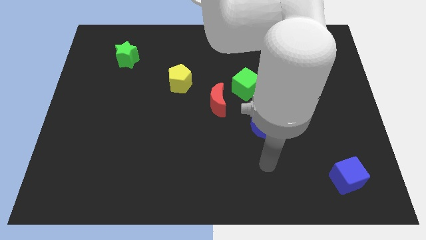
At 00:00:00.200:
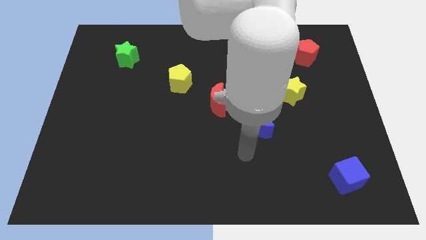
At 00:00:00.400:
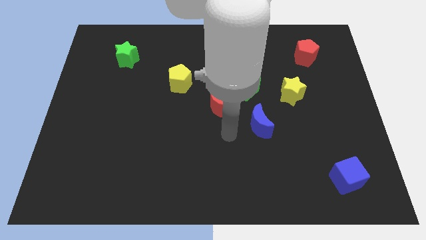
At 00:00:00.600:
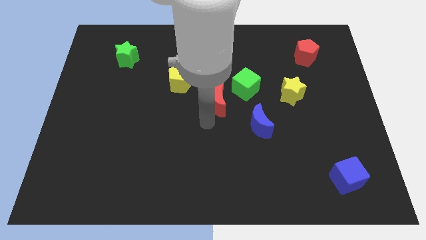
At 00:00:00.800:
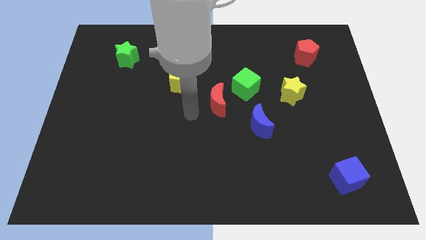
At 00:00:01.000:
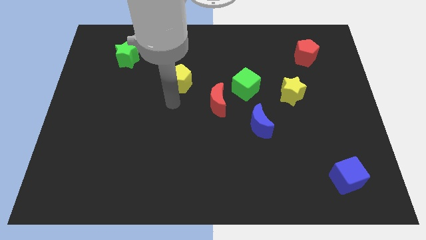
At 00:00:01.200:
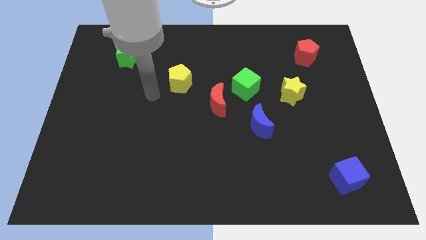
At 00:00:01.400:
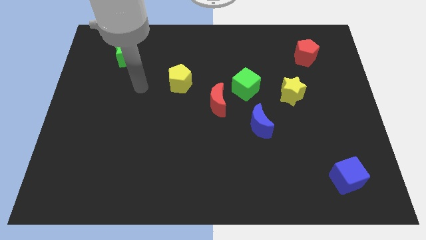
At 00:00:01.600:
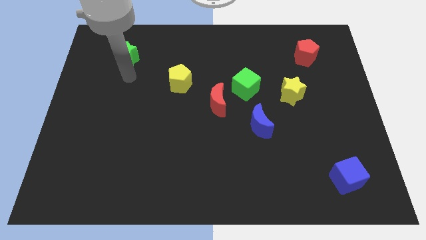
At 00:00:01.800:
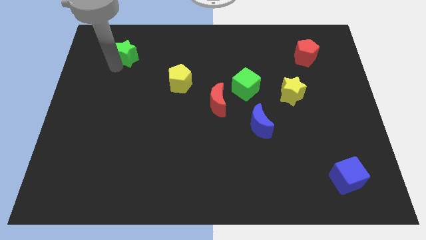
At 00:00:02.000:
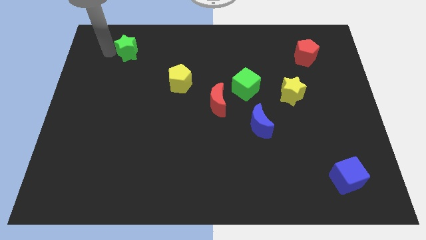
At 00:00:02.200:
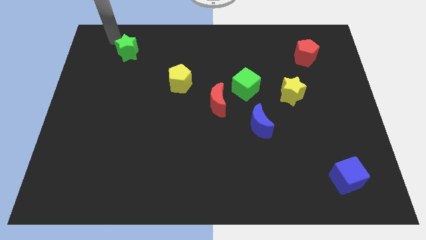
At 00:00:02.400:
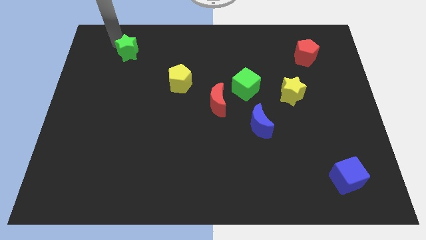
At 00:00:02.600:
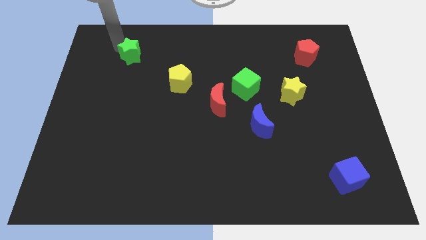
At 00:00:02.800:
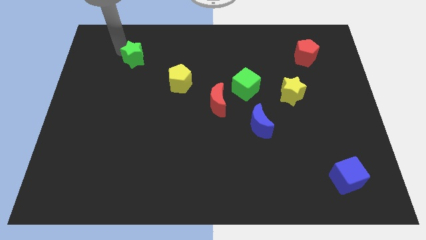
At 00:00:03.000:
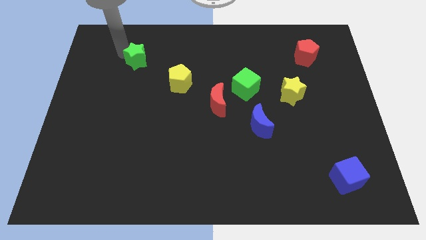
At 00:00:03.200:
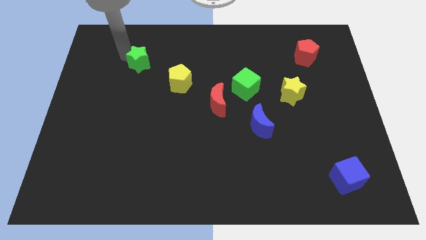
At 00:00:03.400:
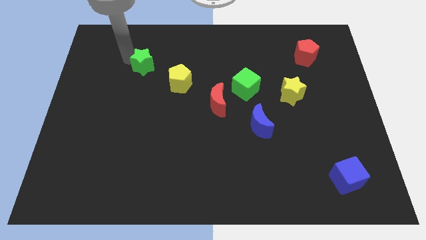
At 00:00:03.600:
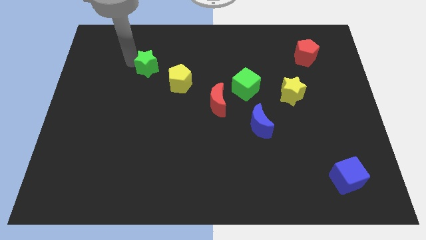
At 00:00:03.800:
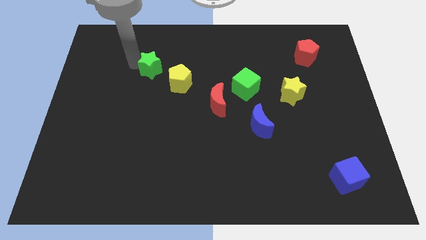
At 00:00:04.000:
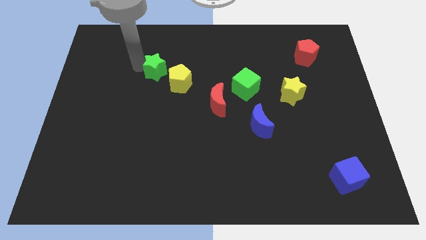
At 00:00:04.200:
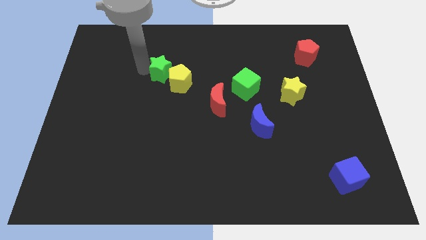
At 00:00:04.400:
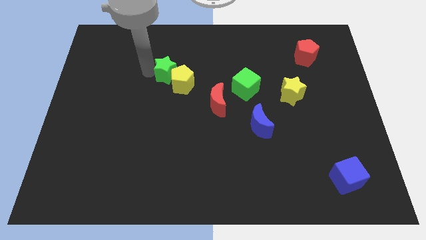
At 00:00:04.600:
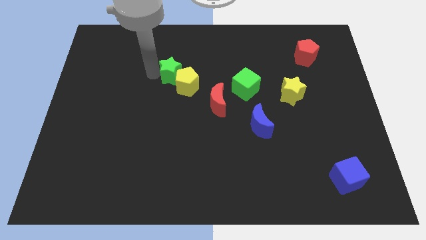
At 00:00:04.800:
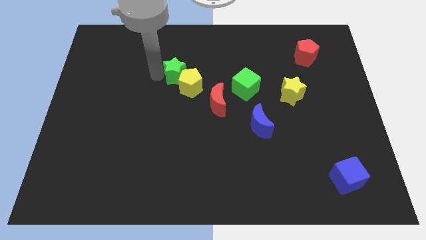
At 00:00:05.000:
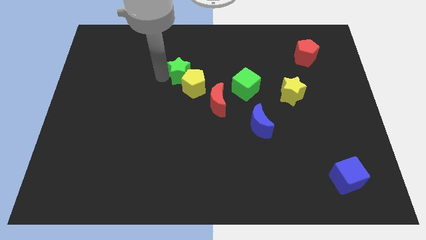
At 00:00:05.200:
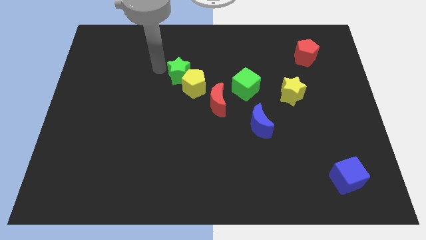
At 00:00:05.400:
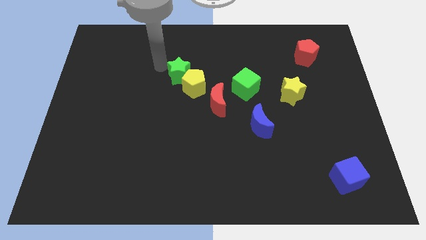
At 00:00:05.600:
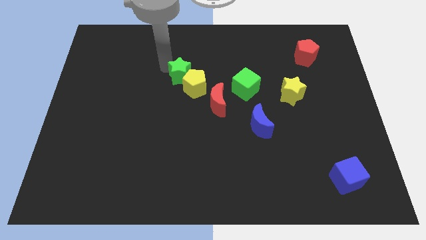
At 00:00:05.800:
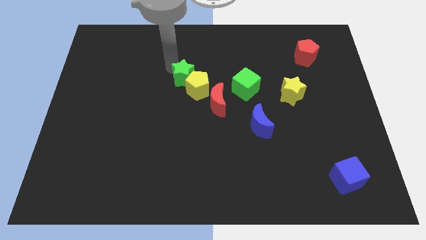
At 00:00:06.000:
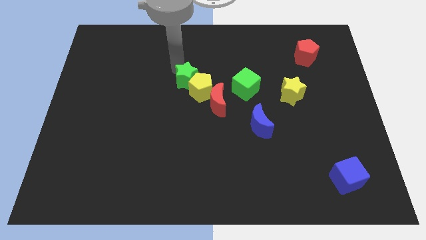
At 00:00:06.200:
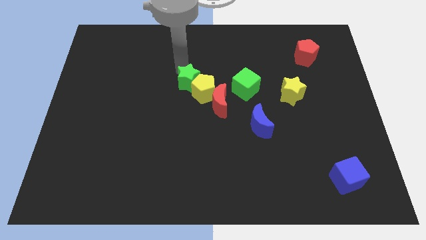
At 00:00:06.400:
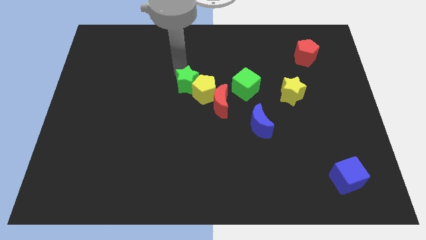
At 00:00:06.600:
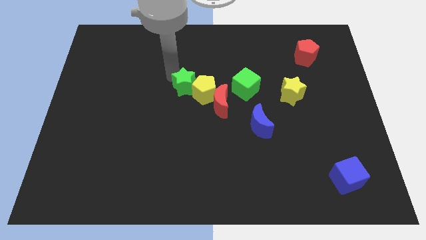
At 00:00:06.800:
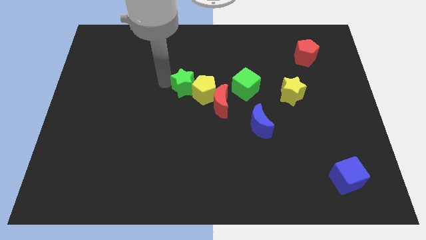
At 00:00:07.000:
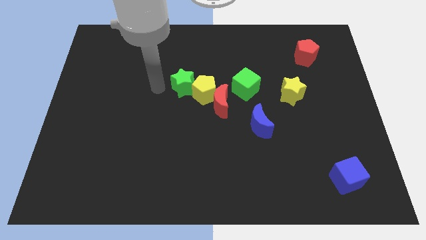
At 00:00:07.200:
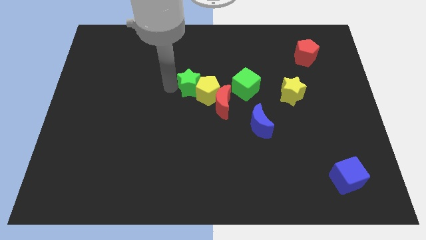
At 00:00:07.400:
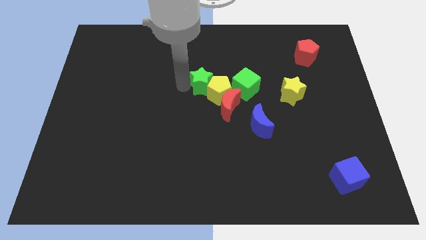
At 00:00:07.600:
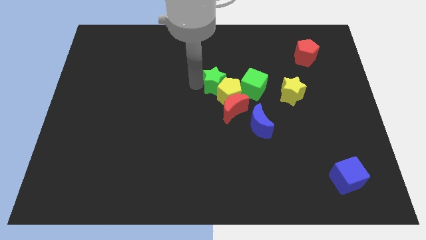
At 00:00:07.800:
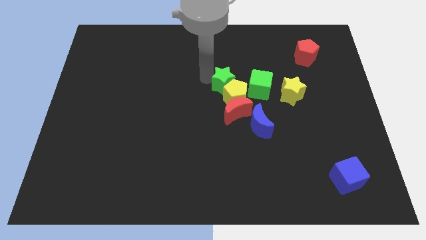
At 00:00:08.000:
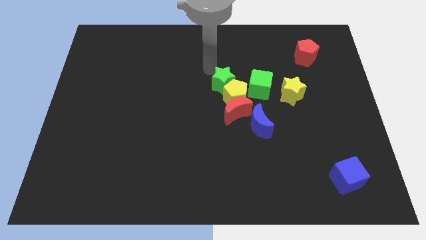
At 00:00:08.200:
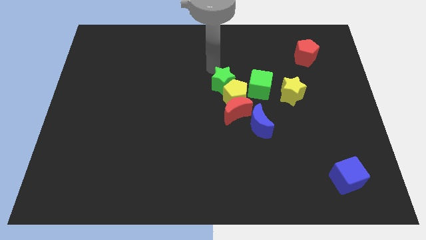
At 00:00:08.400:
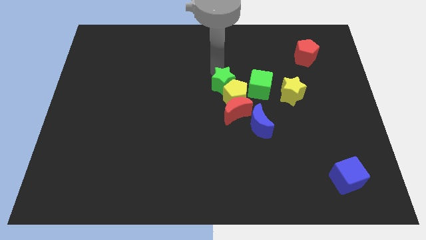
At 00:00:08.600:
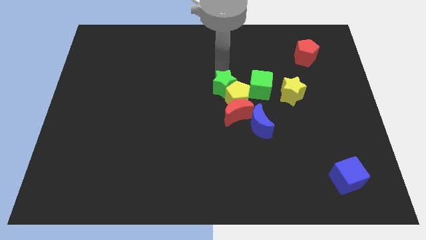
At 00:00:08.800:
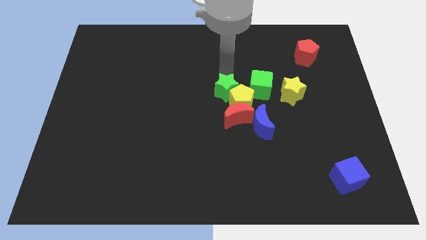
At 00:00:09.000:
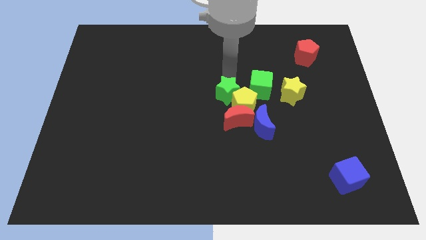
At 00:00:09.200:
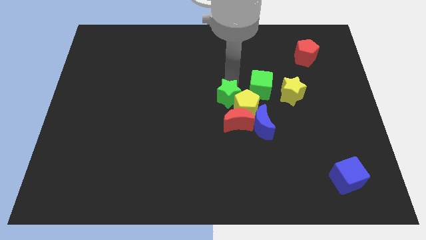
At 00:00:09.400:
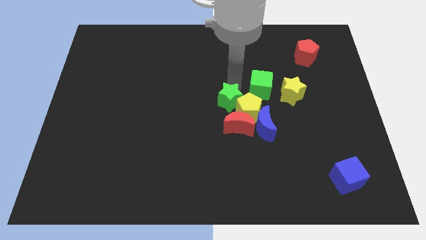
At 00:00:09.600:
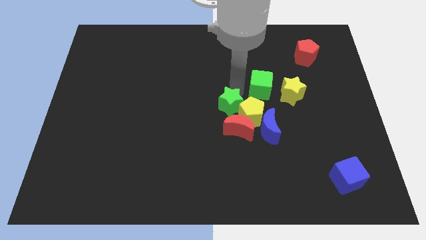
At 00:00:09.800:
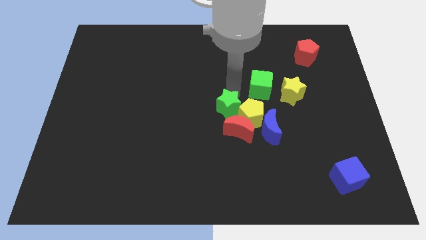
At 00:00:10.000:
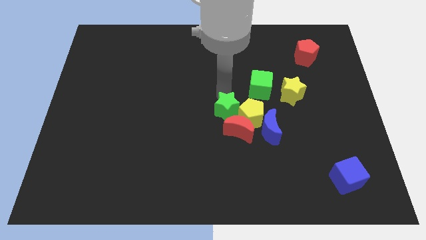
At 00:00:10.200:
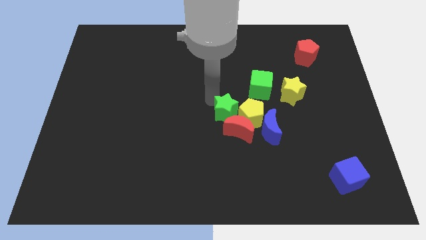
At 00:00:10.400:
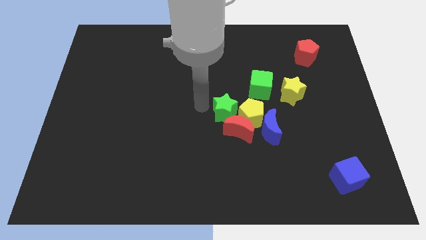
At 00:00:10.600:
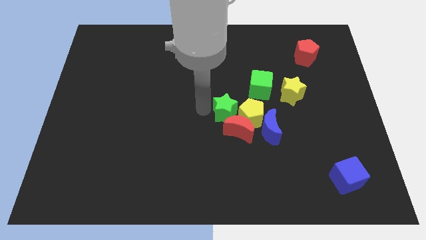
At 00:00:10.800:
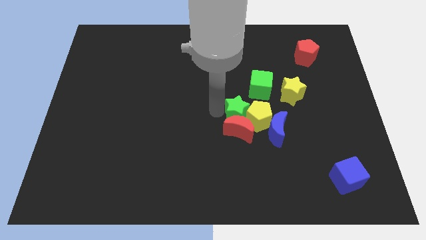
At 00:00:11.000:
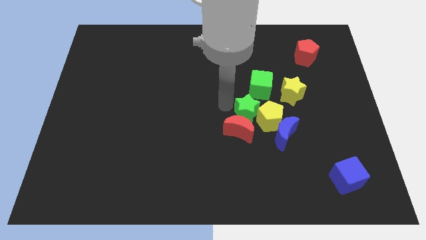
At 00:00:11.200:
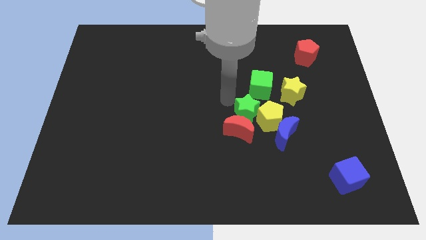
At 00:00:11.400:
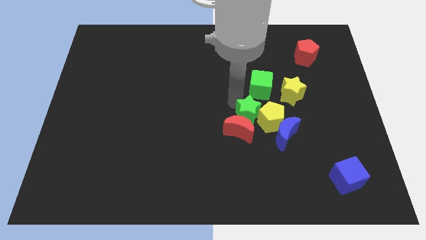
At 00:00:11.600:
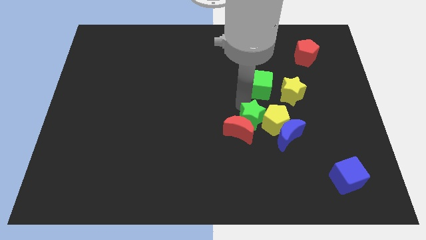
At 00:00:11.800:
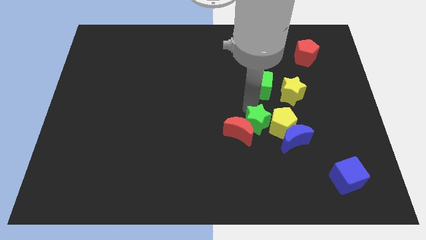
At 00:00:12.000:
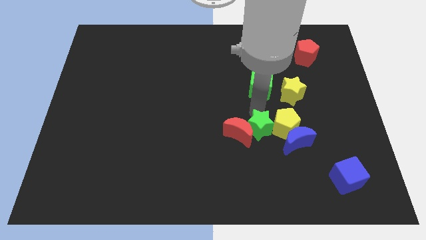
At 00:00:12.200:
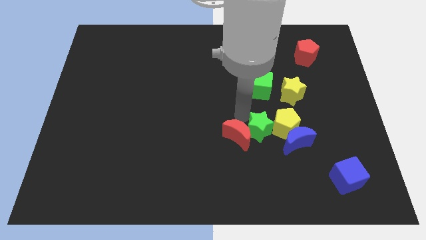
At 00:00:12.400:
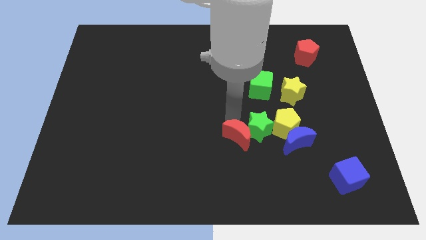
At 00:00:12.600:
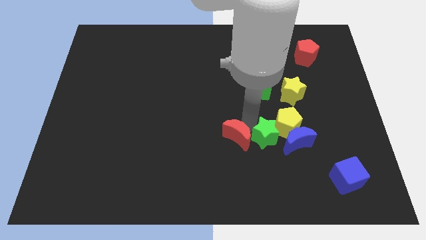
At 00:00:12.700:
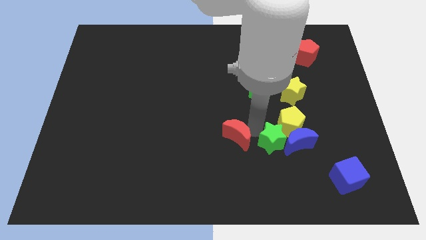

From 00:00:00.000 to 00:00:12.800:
move the green star next to the blue moon

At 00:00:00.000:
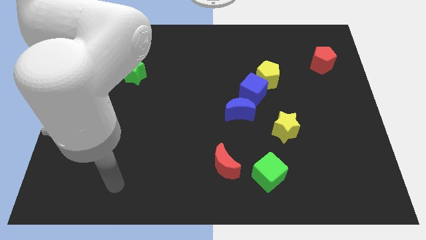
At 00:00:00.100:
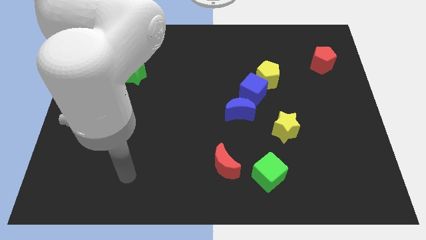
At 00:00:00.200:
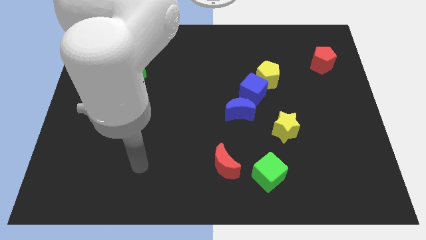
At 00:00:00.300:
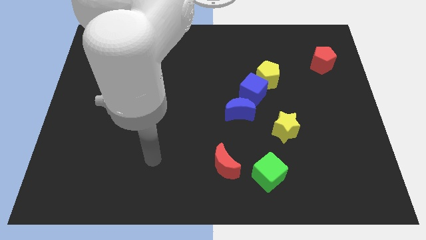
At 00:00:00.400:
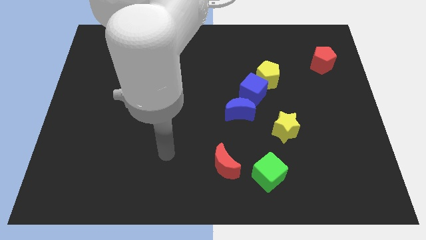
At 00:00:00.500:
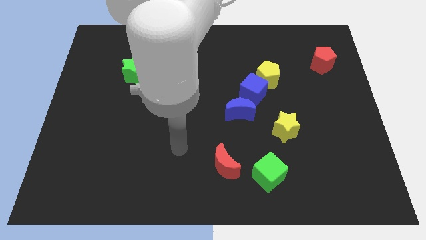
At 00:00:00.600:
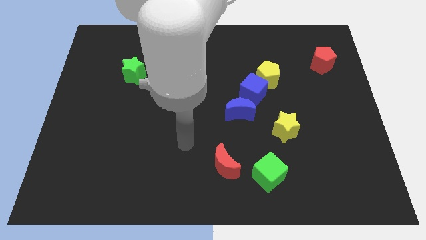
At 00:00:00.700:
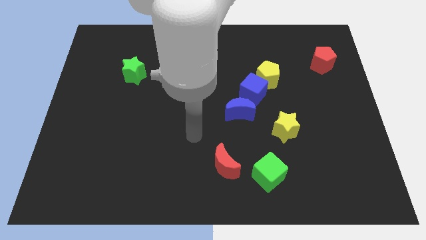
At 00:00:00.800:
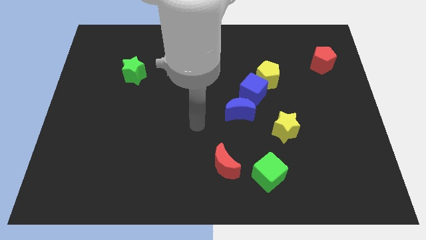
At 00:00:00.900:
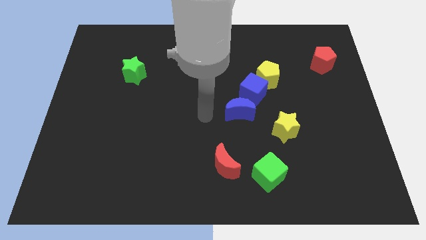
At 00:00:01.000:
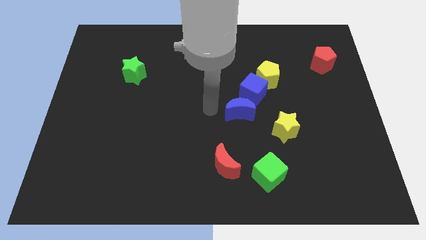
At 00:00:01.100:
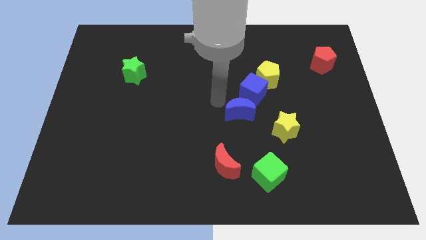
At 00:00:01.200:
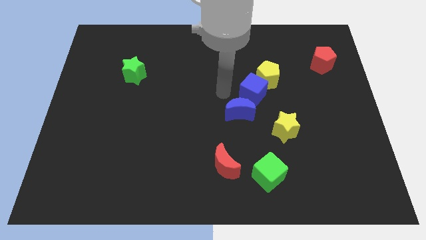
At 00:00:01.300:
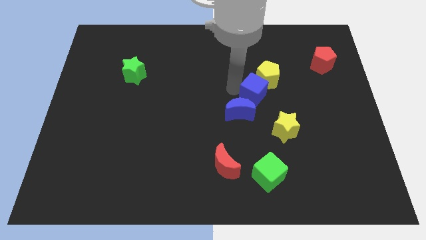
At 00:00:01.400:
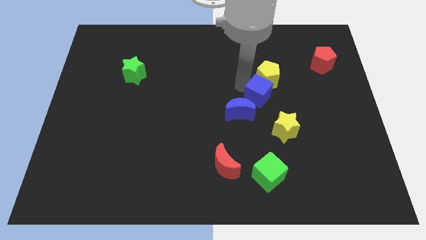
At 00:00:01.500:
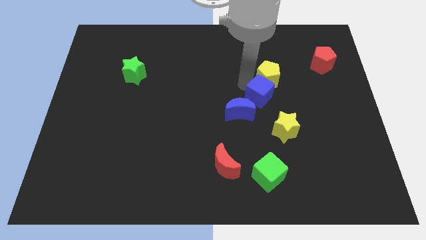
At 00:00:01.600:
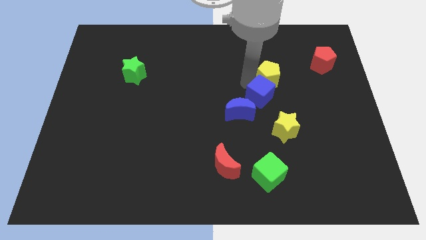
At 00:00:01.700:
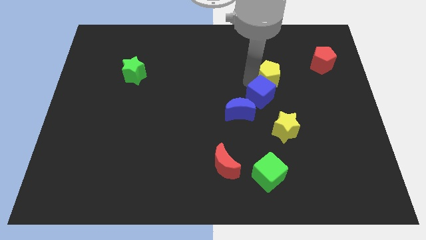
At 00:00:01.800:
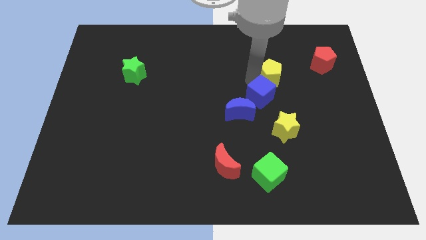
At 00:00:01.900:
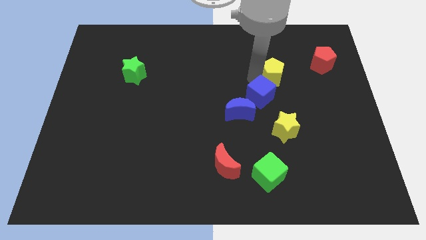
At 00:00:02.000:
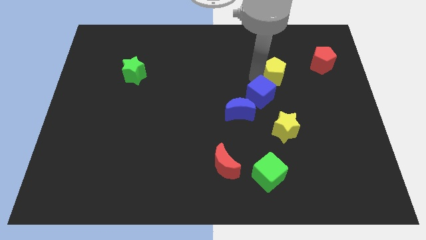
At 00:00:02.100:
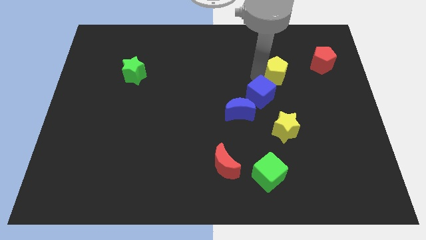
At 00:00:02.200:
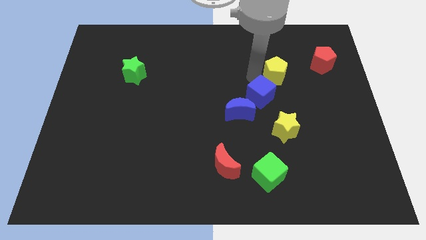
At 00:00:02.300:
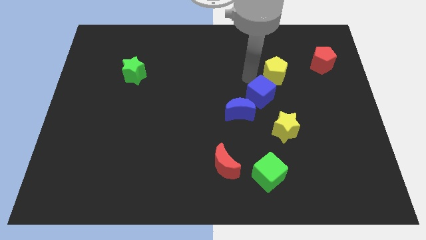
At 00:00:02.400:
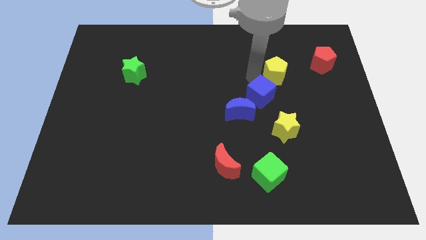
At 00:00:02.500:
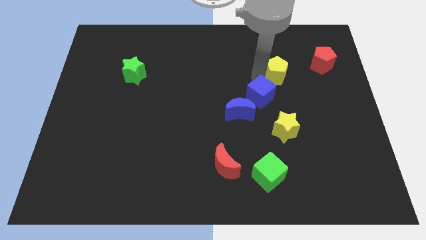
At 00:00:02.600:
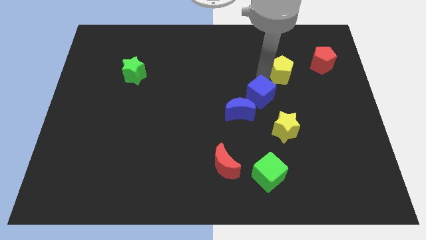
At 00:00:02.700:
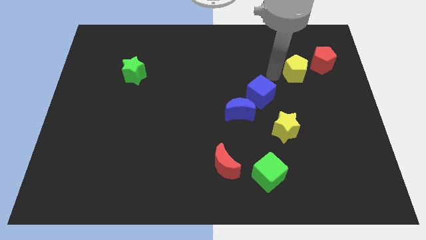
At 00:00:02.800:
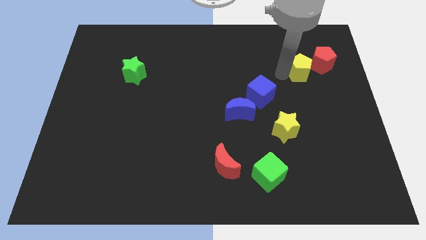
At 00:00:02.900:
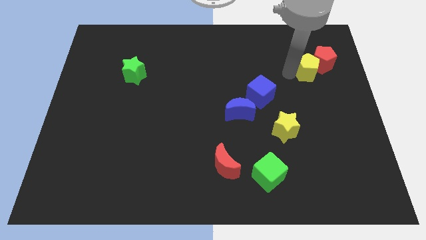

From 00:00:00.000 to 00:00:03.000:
push the yellow pentagon close to the red pentagon
